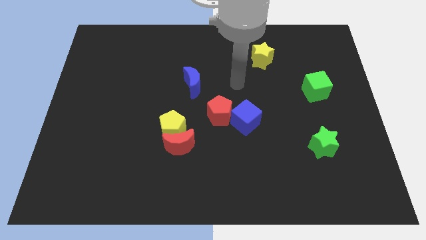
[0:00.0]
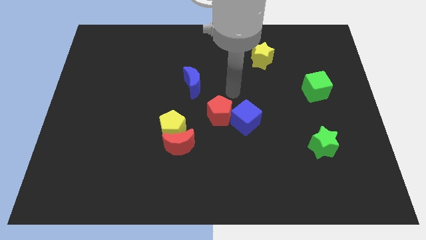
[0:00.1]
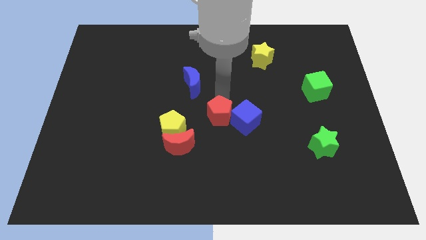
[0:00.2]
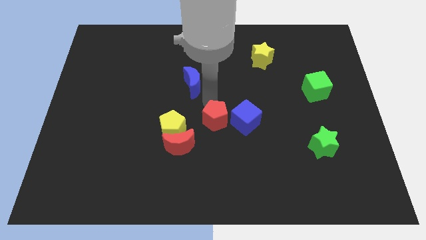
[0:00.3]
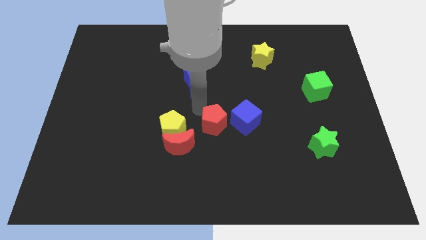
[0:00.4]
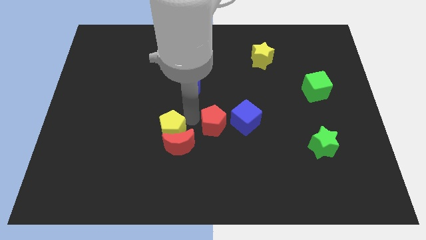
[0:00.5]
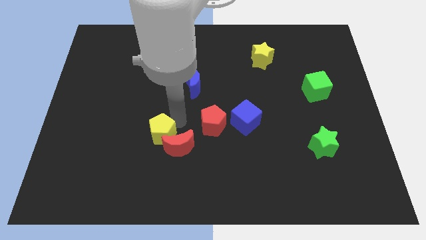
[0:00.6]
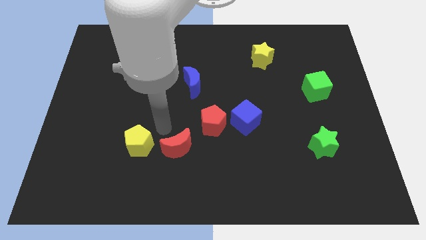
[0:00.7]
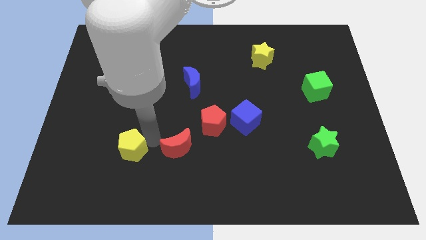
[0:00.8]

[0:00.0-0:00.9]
pull the red moon apart from the yellow pentagon

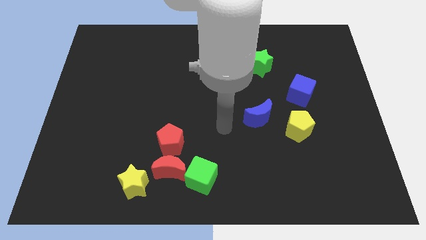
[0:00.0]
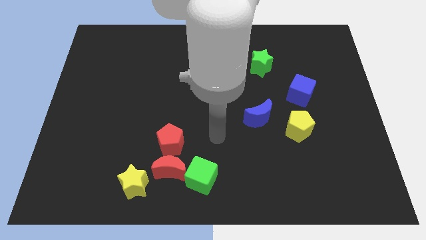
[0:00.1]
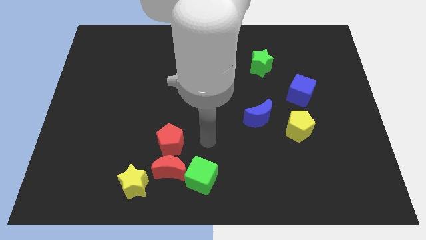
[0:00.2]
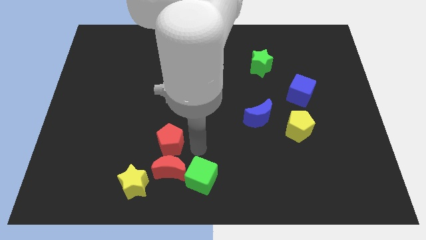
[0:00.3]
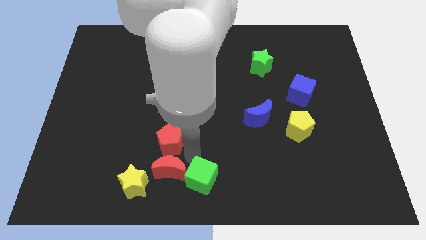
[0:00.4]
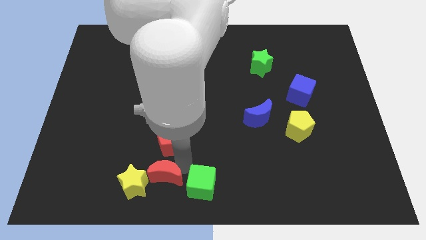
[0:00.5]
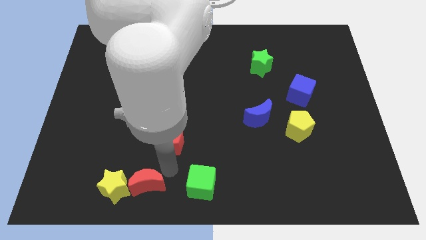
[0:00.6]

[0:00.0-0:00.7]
separate the red pentagon from the red moon

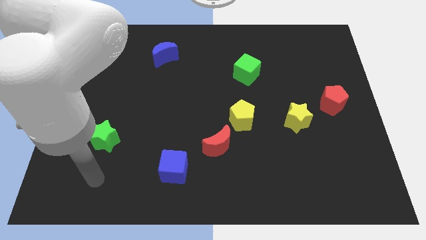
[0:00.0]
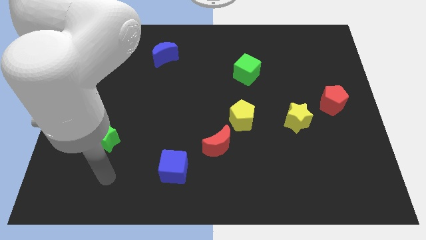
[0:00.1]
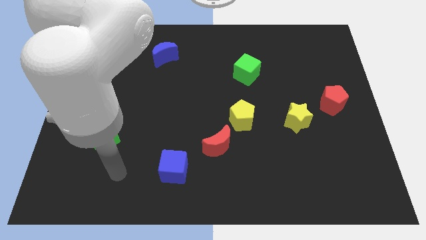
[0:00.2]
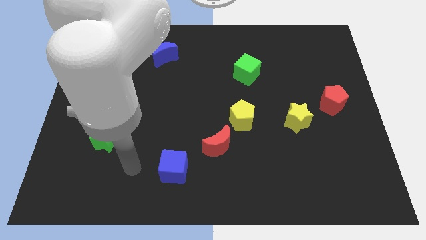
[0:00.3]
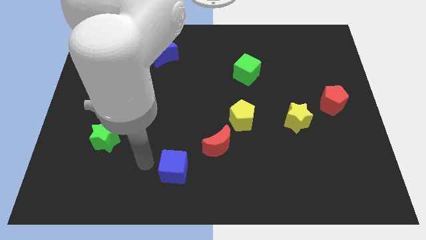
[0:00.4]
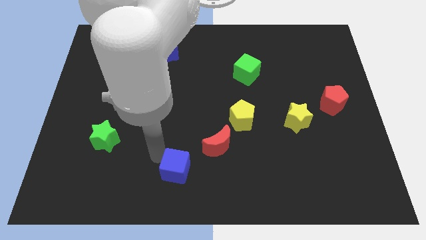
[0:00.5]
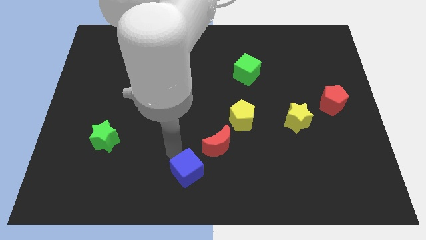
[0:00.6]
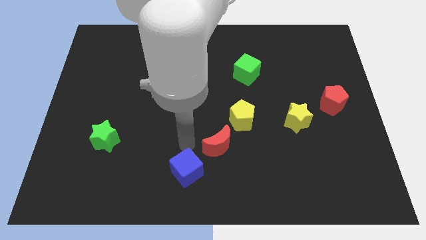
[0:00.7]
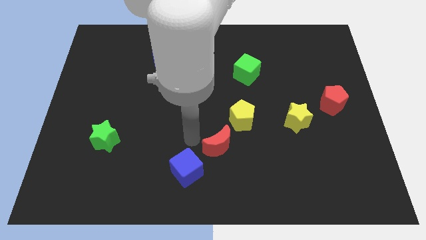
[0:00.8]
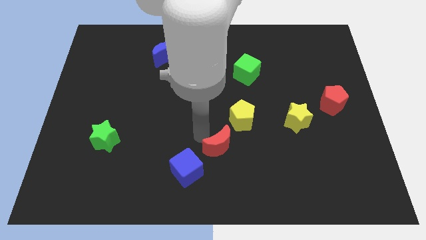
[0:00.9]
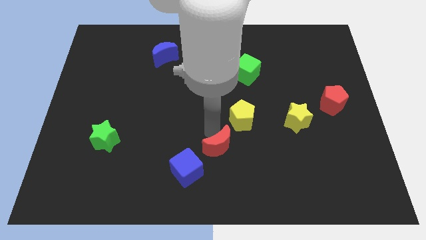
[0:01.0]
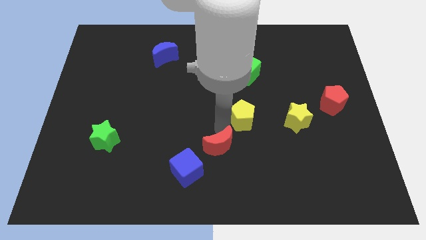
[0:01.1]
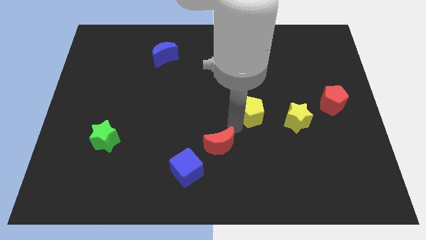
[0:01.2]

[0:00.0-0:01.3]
move the red moon away from the yellow pentagon

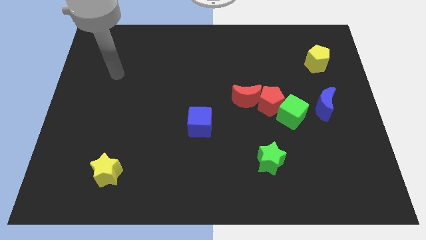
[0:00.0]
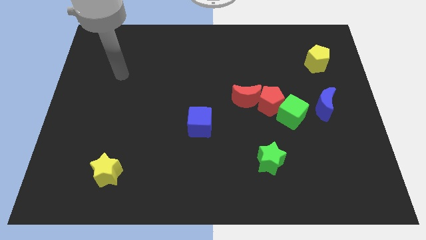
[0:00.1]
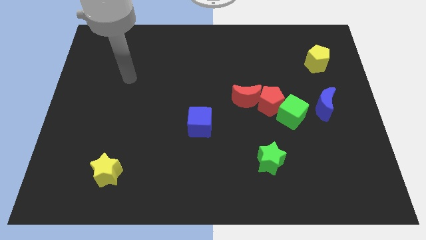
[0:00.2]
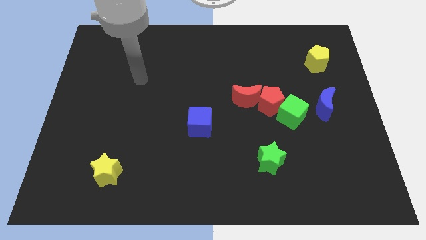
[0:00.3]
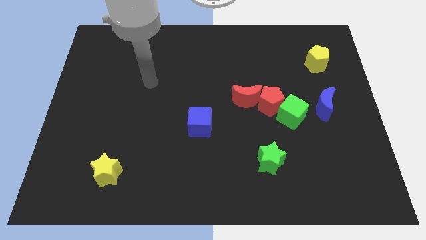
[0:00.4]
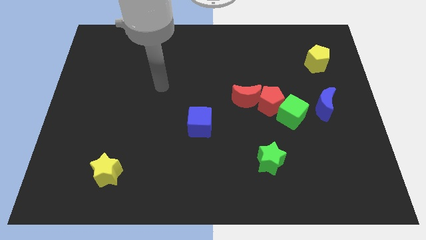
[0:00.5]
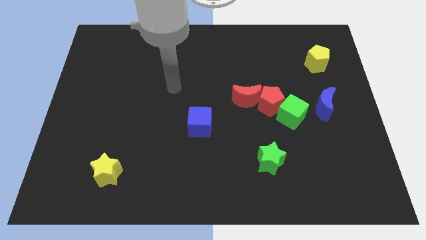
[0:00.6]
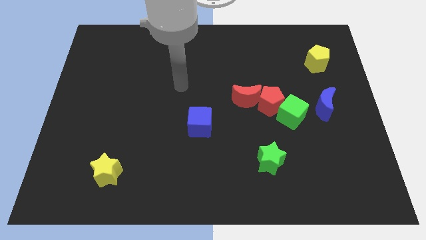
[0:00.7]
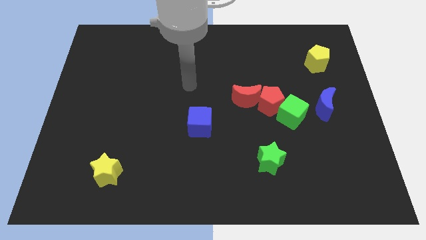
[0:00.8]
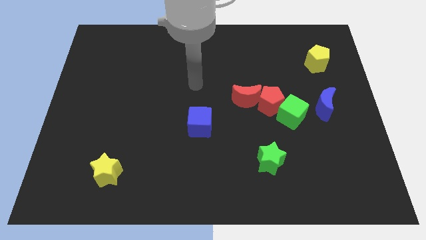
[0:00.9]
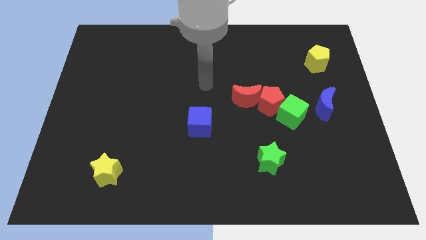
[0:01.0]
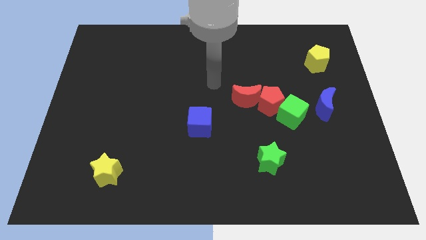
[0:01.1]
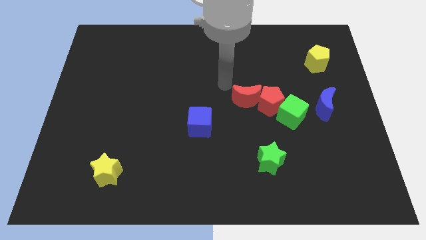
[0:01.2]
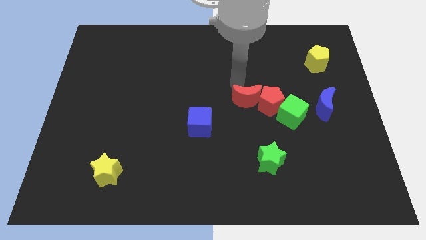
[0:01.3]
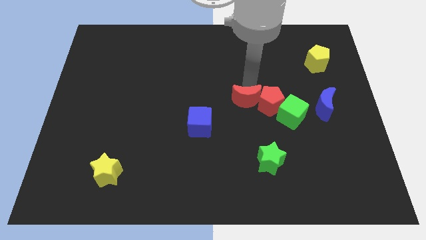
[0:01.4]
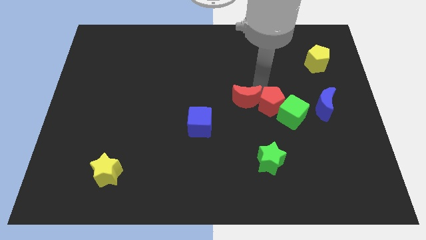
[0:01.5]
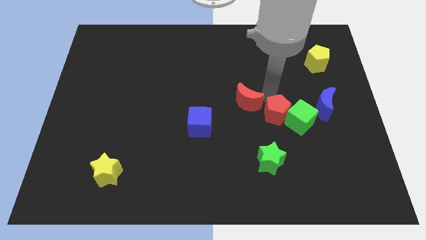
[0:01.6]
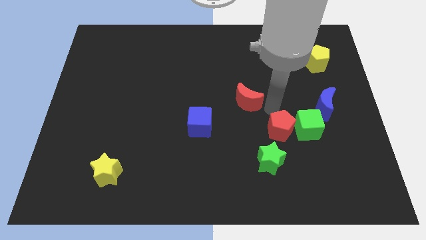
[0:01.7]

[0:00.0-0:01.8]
move the red moon away from the red pentagon

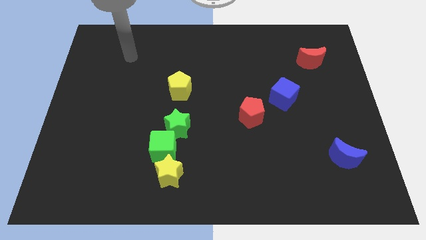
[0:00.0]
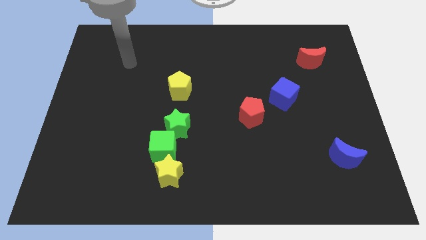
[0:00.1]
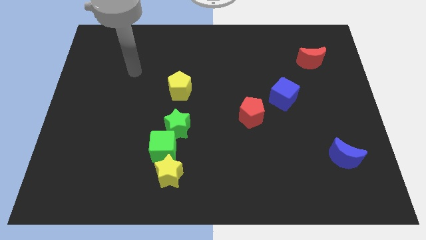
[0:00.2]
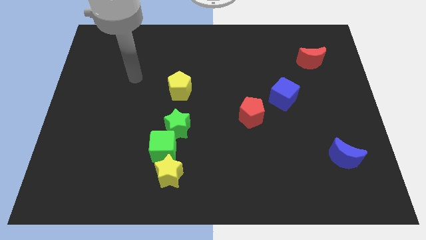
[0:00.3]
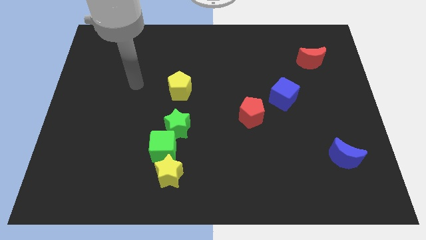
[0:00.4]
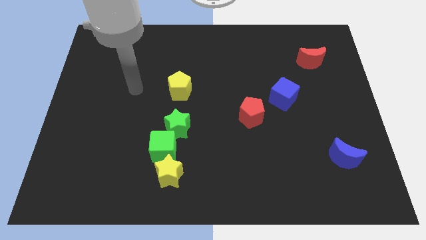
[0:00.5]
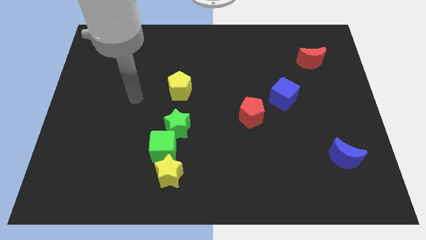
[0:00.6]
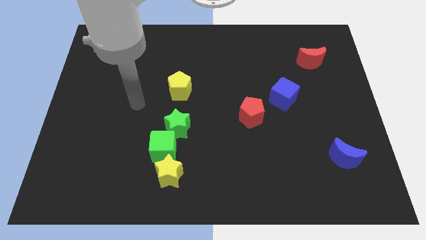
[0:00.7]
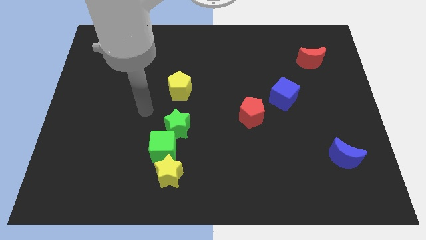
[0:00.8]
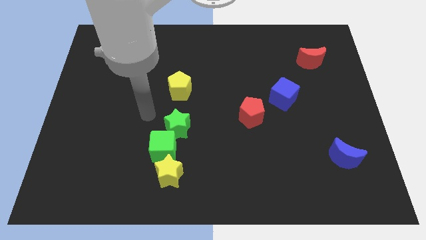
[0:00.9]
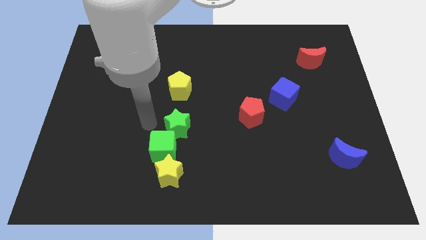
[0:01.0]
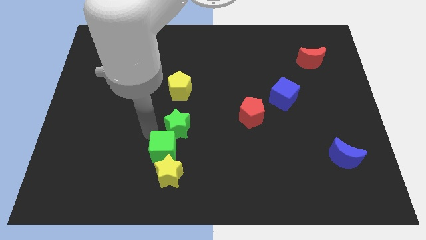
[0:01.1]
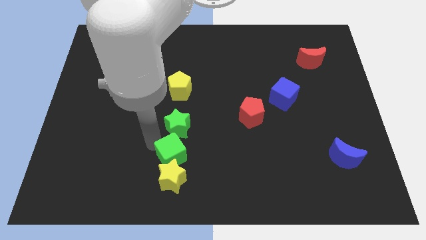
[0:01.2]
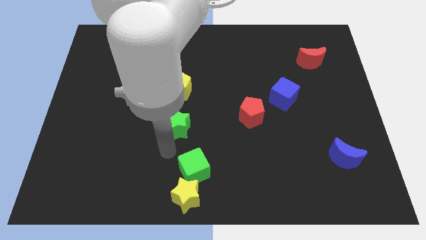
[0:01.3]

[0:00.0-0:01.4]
pull the green star apart from the green cube

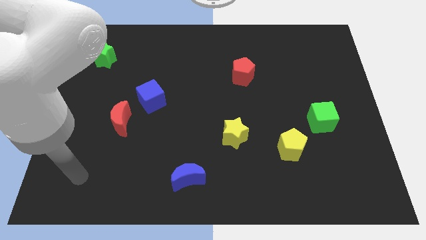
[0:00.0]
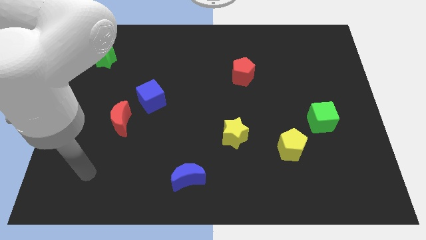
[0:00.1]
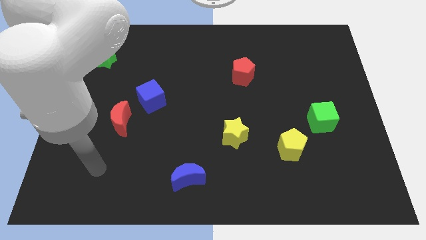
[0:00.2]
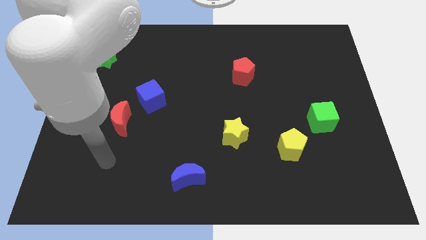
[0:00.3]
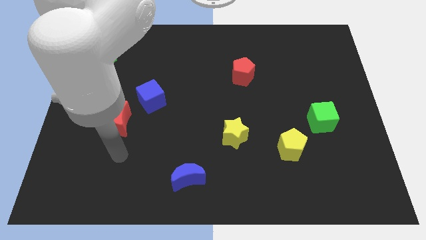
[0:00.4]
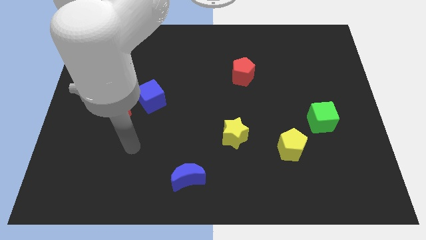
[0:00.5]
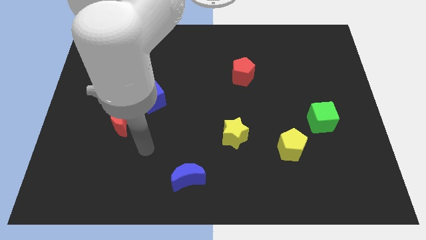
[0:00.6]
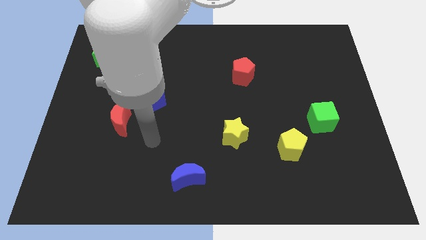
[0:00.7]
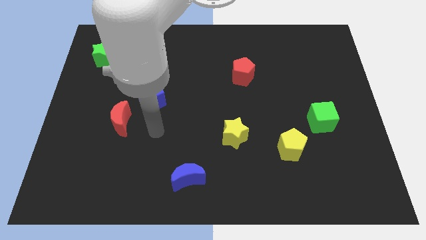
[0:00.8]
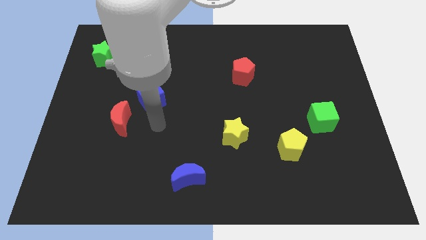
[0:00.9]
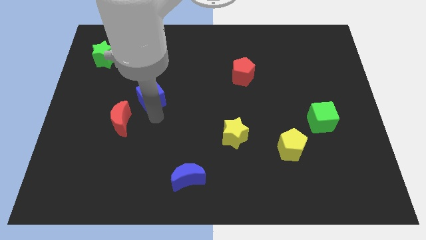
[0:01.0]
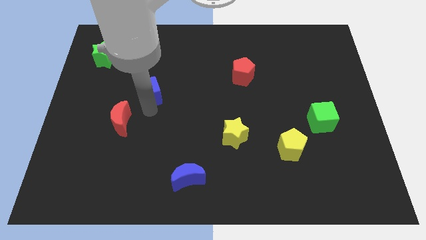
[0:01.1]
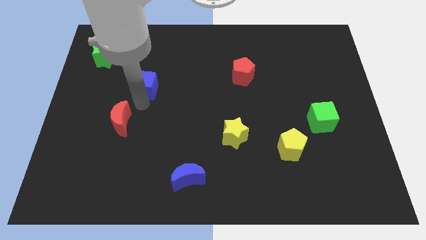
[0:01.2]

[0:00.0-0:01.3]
move the red moon away from the blue cube

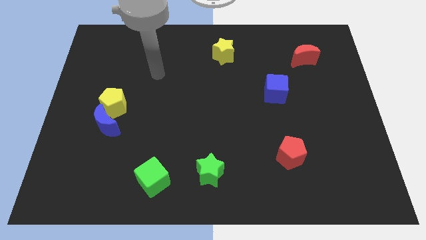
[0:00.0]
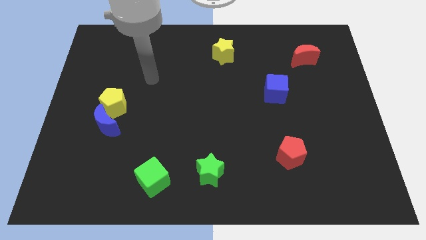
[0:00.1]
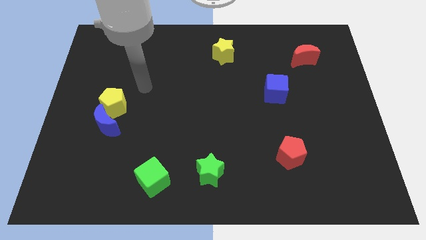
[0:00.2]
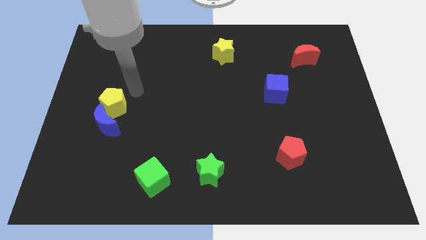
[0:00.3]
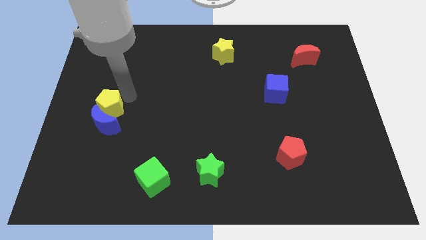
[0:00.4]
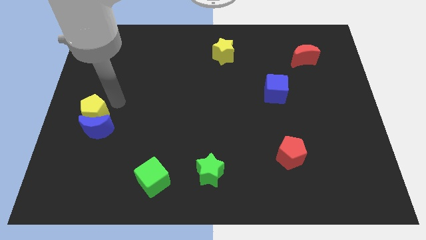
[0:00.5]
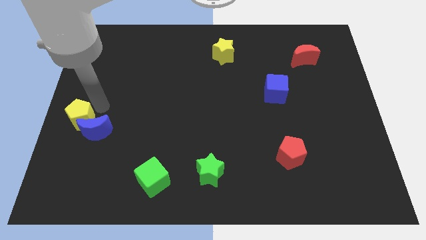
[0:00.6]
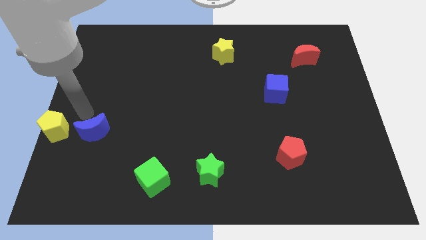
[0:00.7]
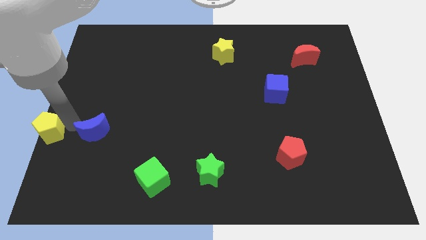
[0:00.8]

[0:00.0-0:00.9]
move the blue moon away from the yellow pentagon

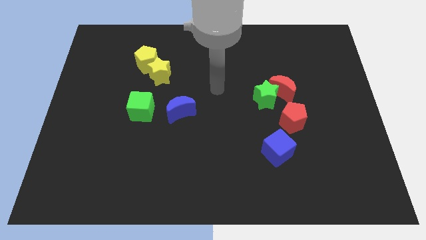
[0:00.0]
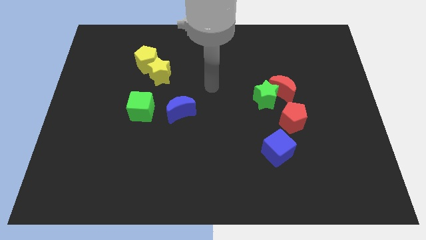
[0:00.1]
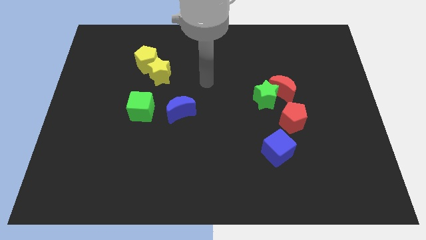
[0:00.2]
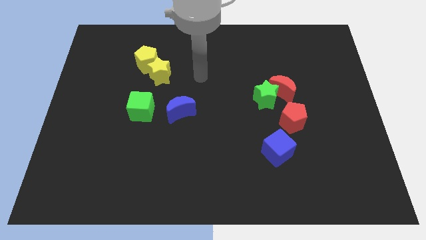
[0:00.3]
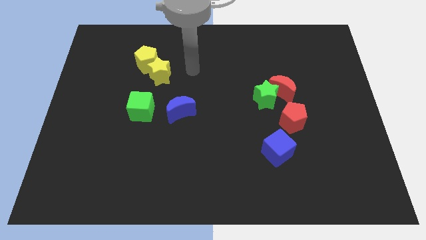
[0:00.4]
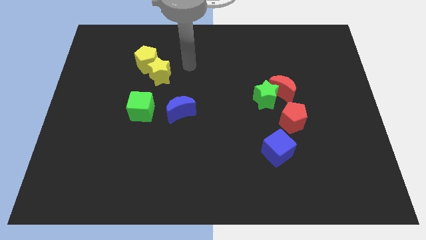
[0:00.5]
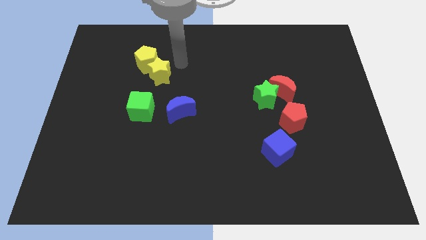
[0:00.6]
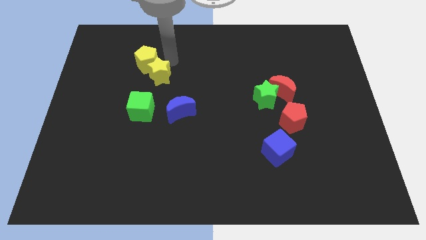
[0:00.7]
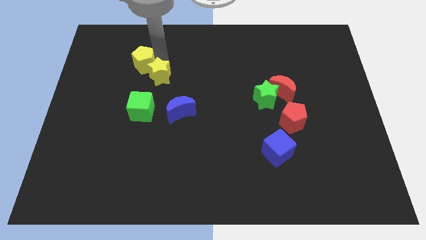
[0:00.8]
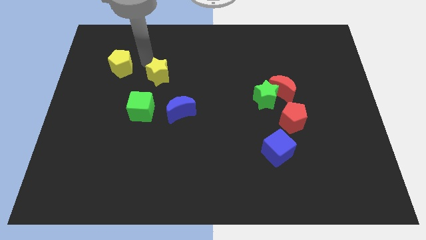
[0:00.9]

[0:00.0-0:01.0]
separate the yellow star from the yellow pentagon

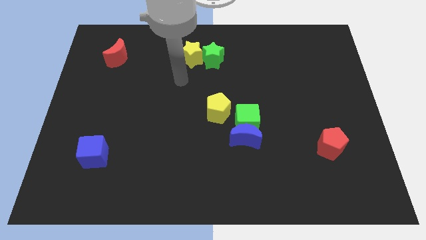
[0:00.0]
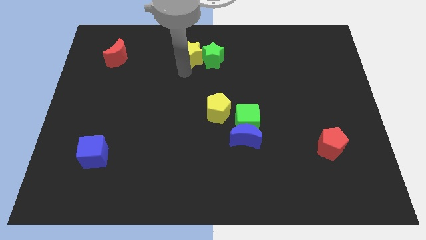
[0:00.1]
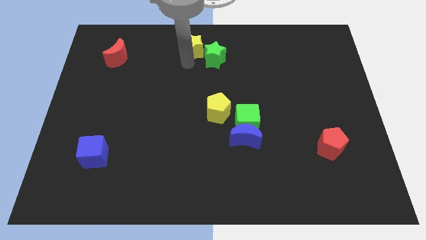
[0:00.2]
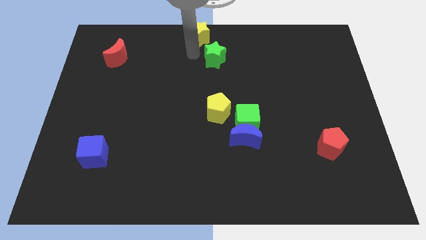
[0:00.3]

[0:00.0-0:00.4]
move the green star away from the yellow star
